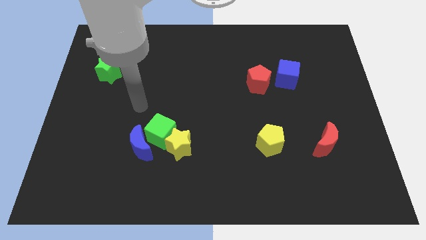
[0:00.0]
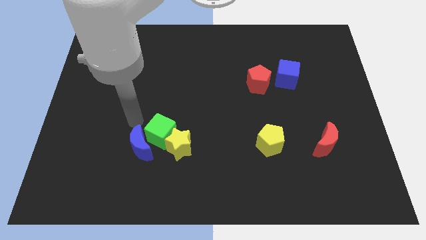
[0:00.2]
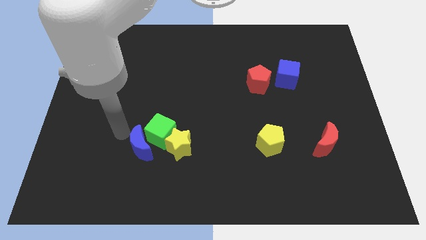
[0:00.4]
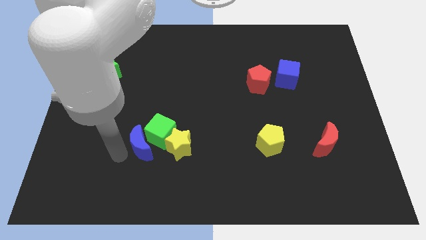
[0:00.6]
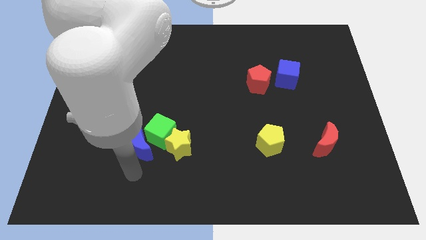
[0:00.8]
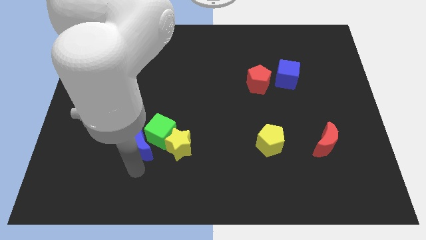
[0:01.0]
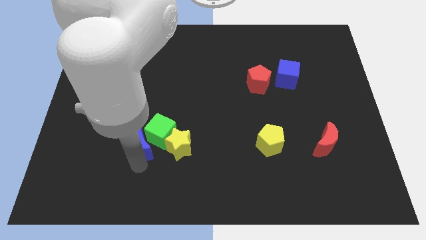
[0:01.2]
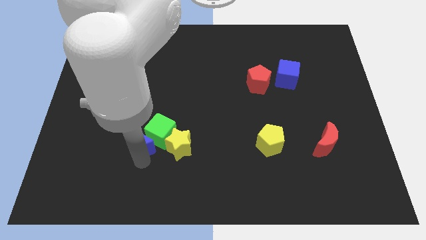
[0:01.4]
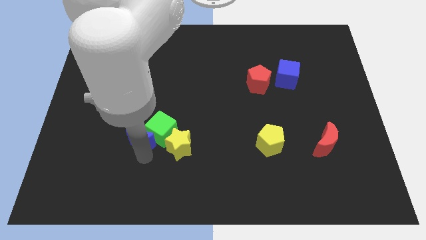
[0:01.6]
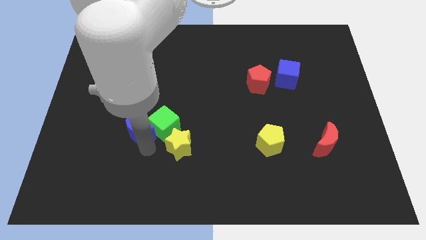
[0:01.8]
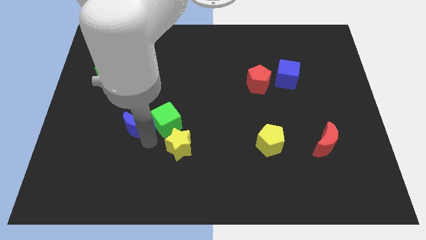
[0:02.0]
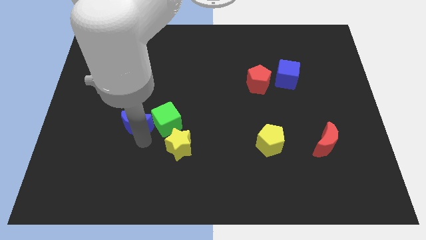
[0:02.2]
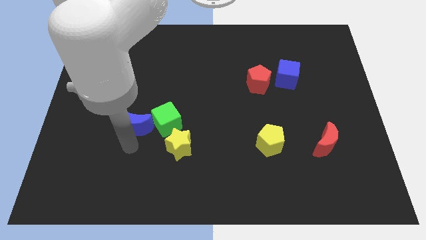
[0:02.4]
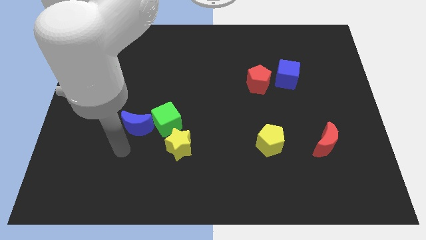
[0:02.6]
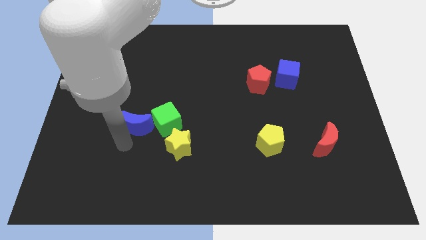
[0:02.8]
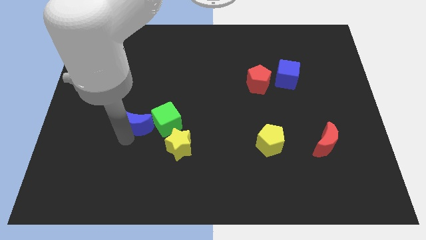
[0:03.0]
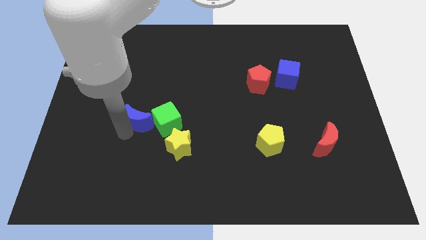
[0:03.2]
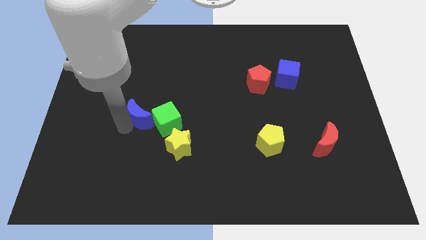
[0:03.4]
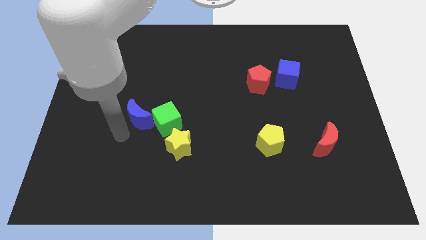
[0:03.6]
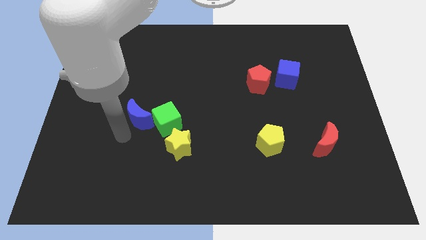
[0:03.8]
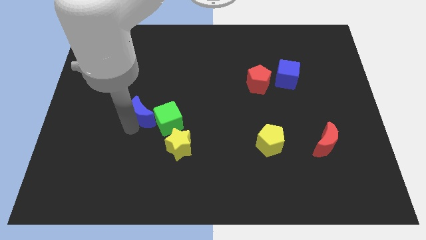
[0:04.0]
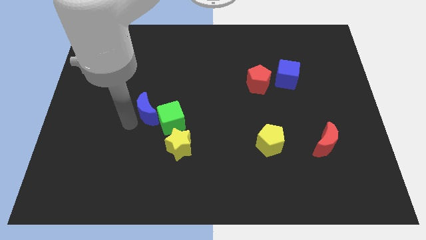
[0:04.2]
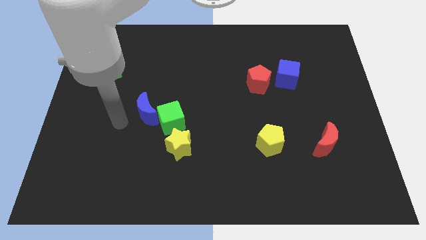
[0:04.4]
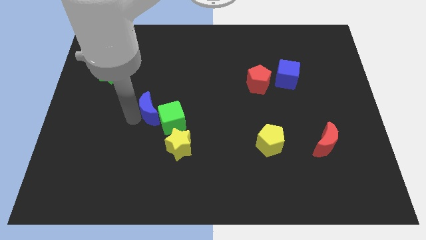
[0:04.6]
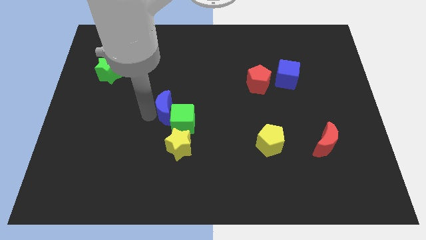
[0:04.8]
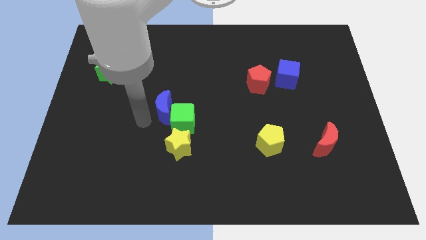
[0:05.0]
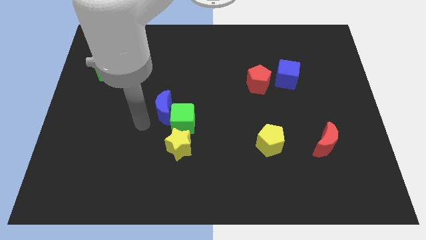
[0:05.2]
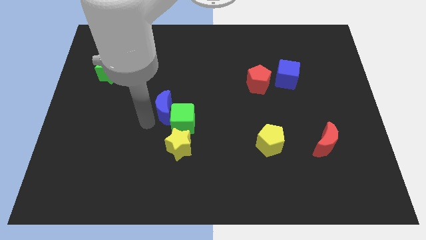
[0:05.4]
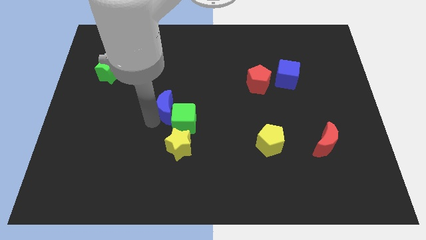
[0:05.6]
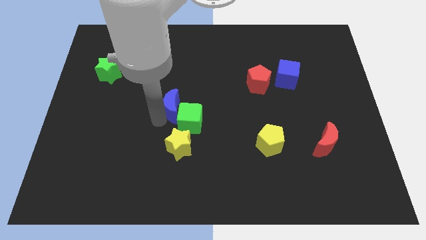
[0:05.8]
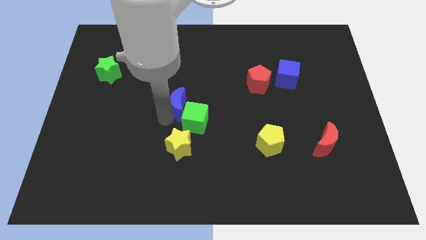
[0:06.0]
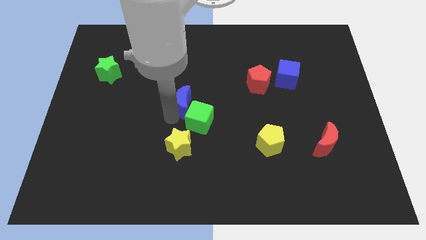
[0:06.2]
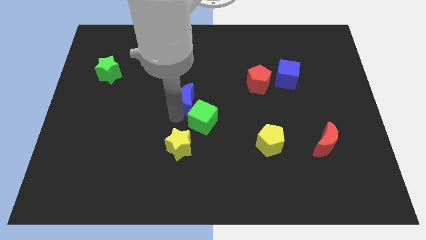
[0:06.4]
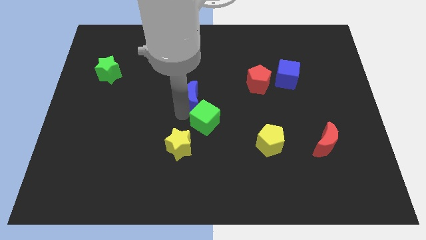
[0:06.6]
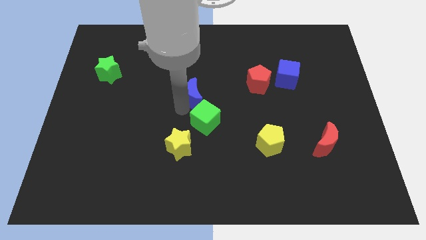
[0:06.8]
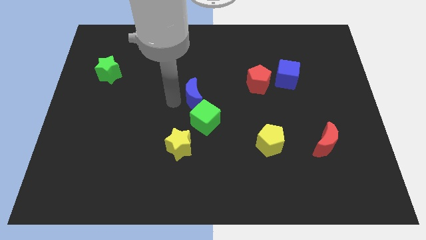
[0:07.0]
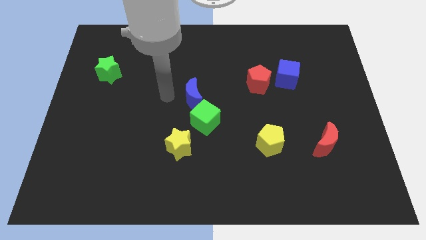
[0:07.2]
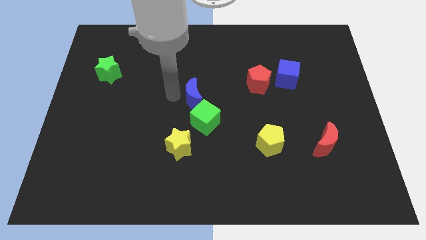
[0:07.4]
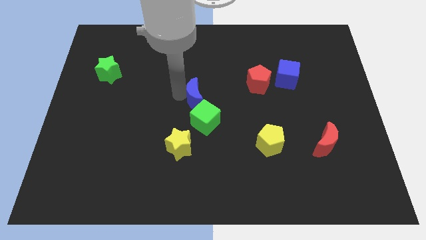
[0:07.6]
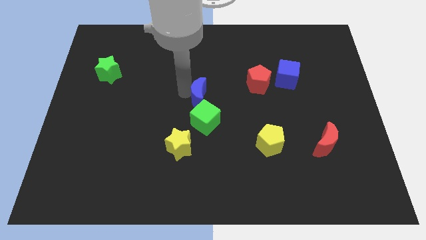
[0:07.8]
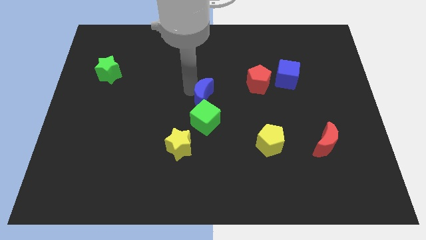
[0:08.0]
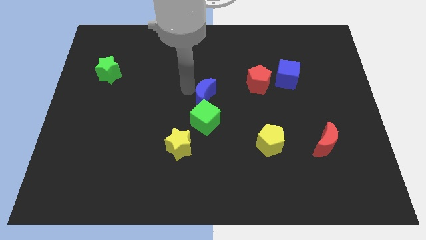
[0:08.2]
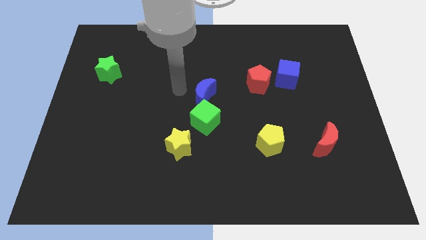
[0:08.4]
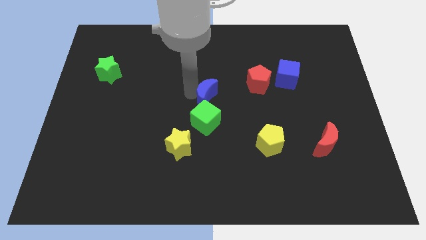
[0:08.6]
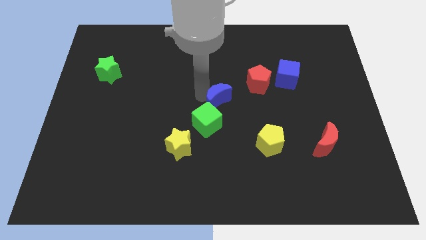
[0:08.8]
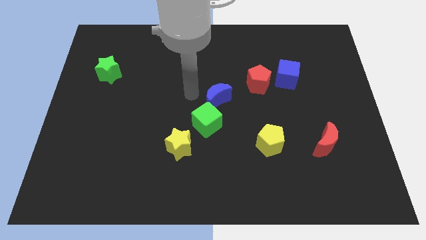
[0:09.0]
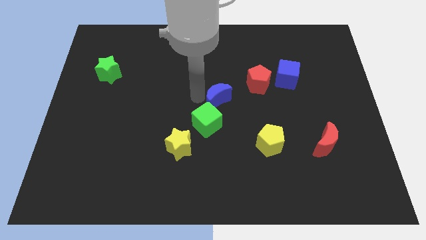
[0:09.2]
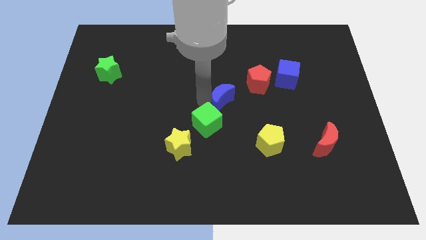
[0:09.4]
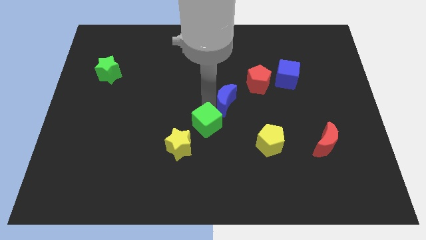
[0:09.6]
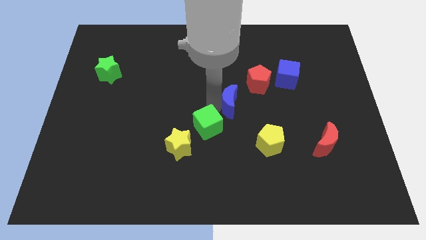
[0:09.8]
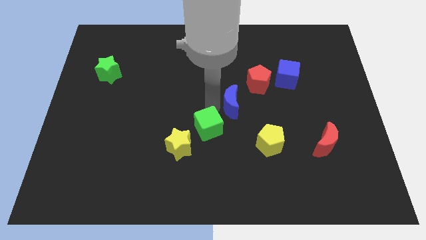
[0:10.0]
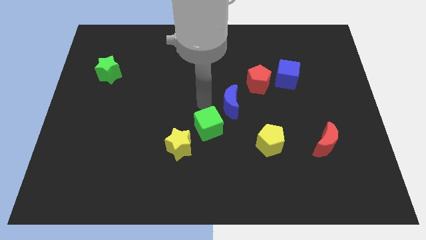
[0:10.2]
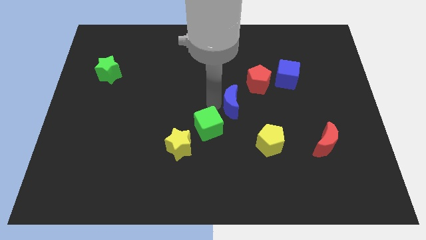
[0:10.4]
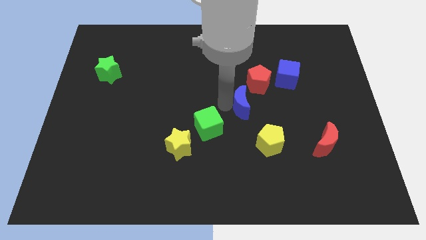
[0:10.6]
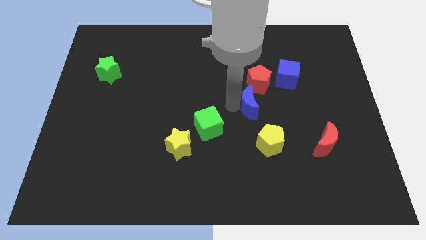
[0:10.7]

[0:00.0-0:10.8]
slide the blue moon to the top side of the yellow pentagon

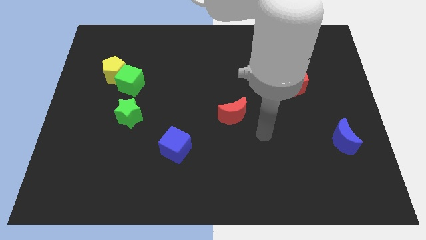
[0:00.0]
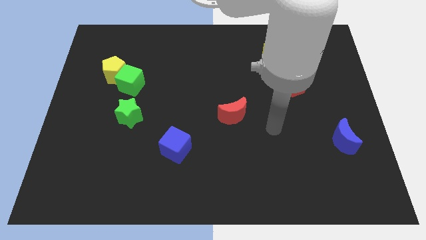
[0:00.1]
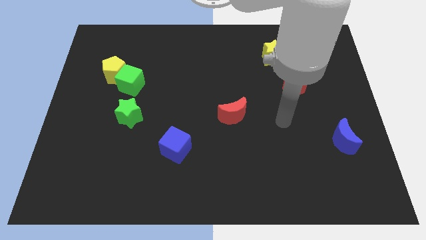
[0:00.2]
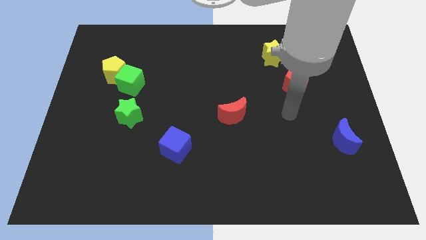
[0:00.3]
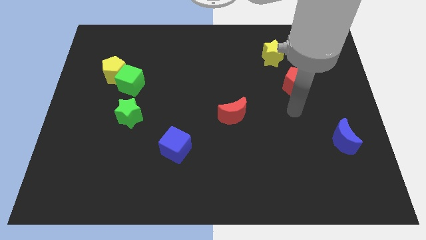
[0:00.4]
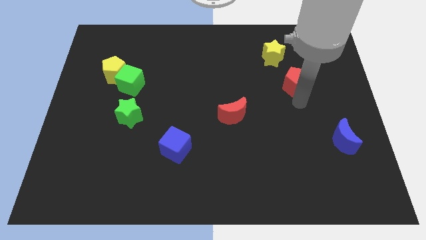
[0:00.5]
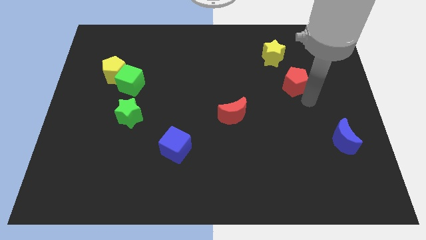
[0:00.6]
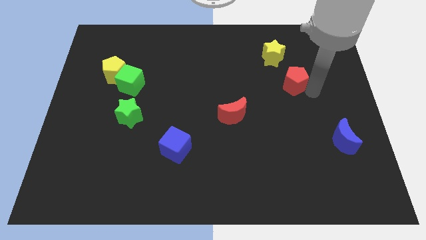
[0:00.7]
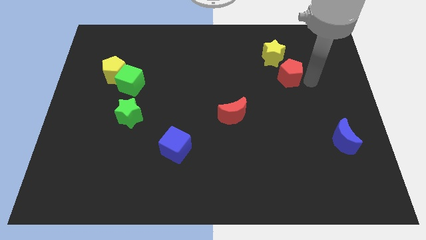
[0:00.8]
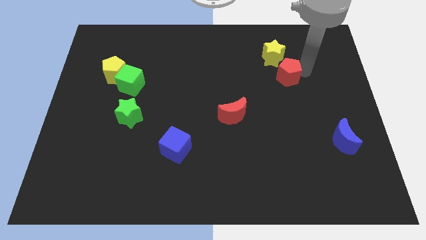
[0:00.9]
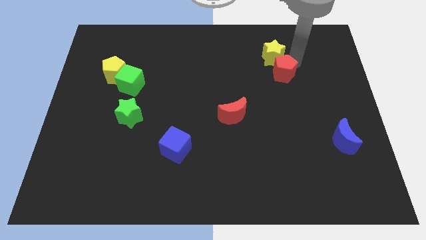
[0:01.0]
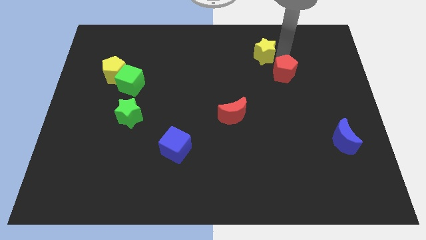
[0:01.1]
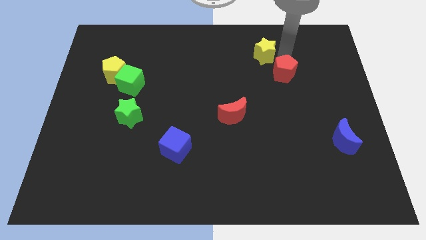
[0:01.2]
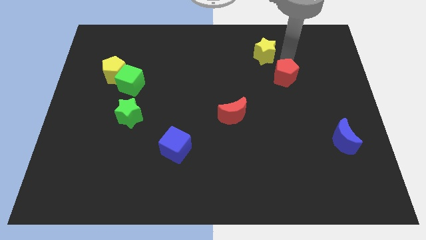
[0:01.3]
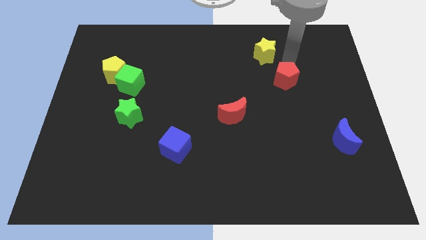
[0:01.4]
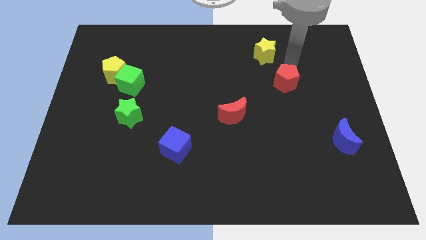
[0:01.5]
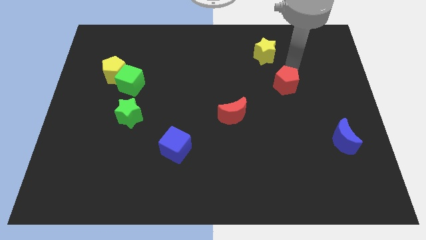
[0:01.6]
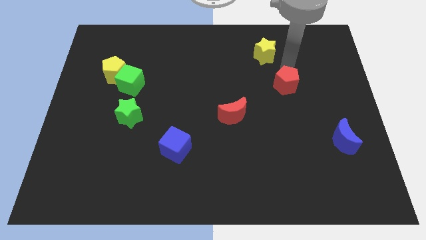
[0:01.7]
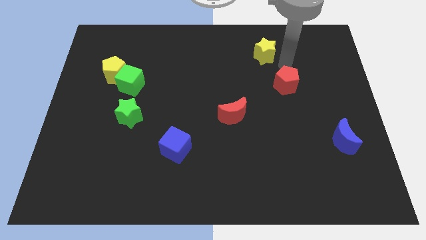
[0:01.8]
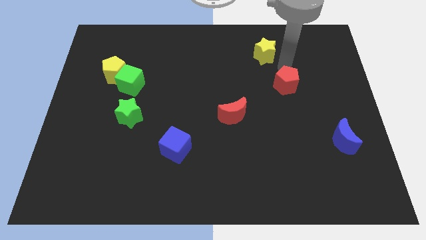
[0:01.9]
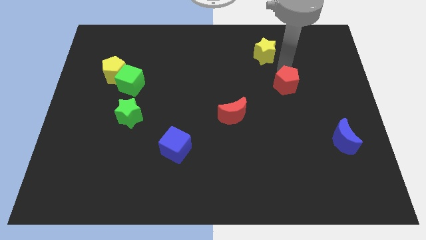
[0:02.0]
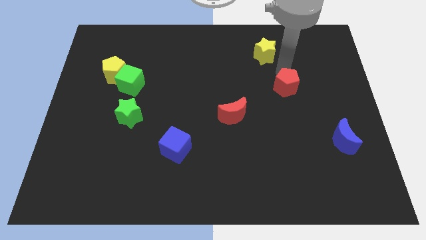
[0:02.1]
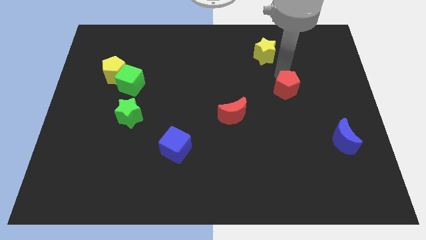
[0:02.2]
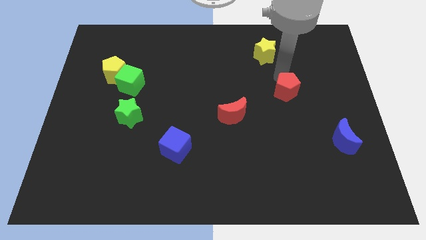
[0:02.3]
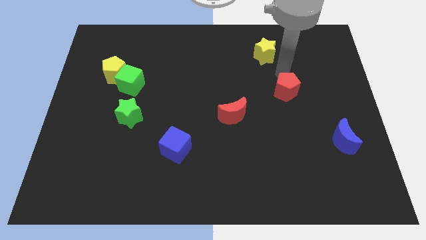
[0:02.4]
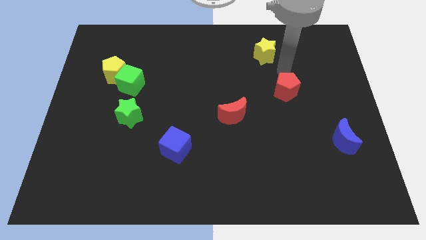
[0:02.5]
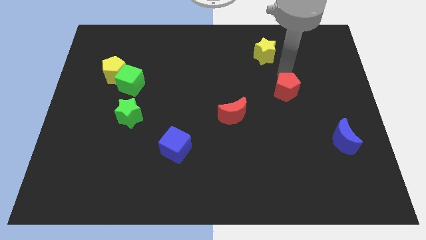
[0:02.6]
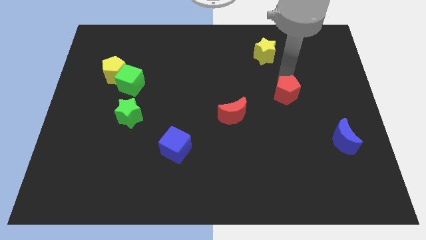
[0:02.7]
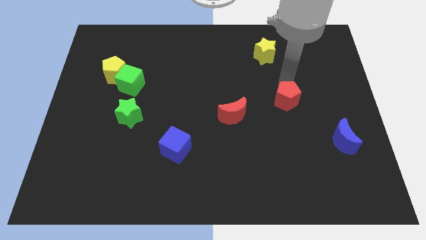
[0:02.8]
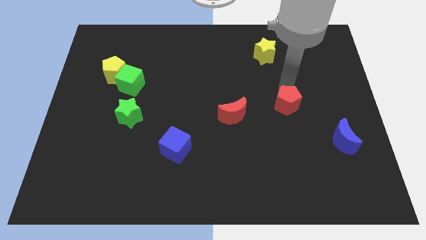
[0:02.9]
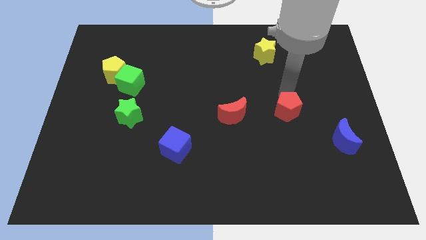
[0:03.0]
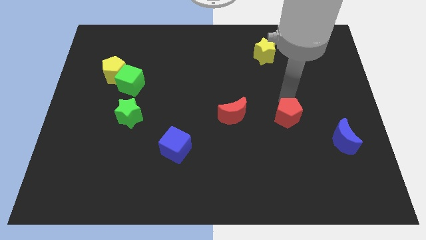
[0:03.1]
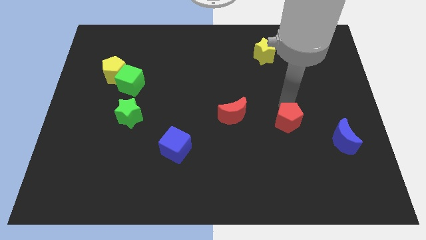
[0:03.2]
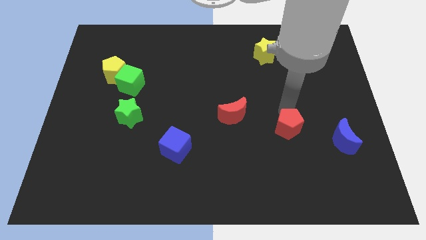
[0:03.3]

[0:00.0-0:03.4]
slide the red pentagon to the left of the blue moon
